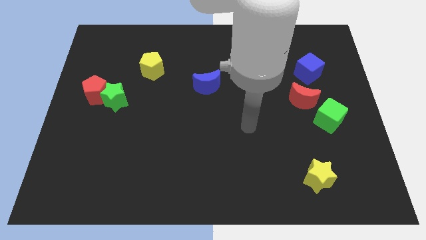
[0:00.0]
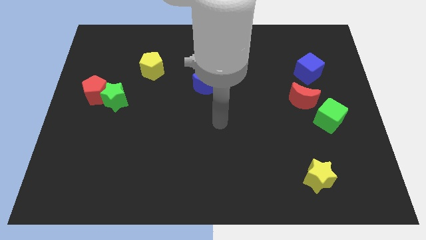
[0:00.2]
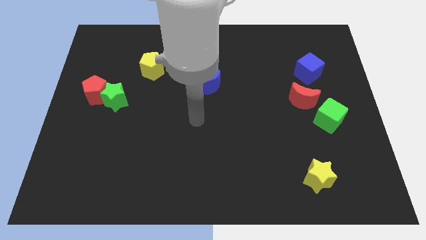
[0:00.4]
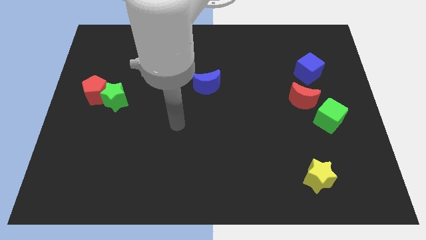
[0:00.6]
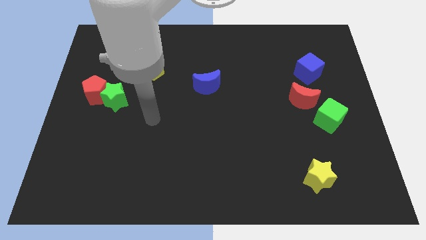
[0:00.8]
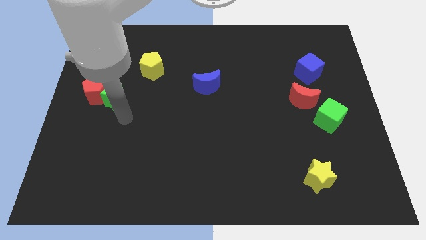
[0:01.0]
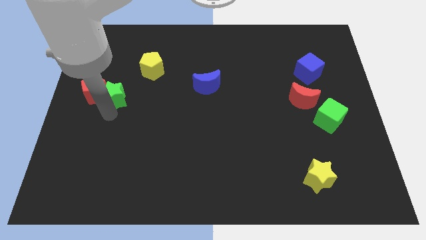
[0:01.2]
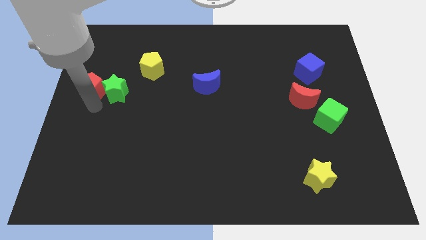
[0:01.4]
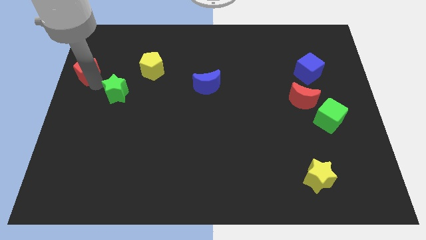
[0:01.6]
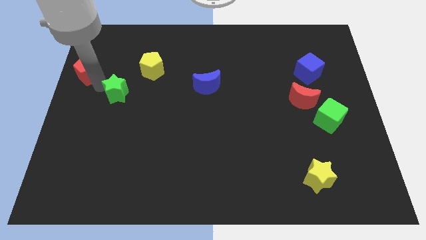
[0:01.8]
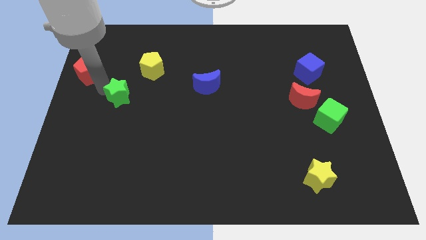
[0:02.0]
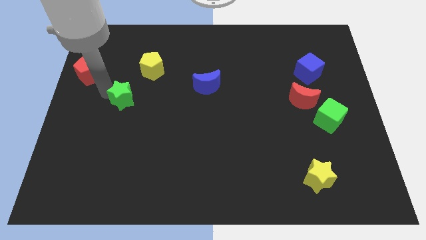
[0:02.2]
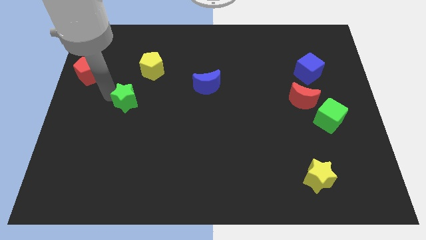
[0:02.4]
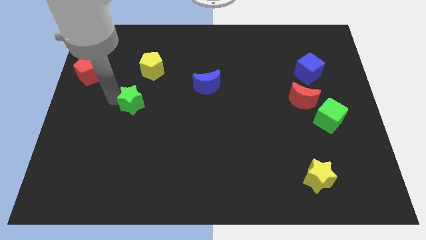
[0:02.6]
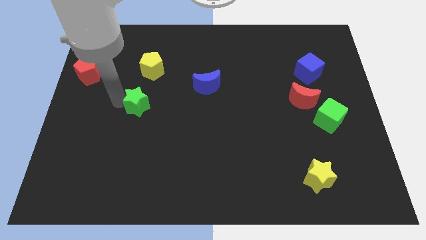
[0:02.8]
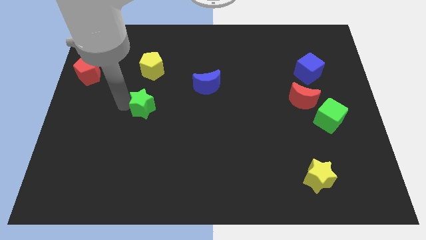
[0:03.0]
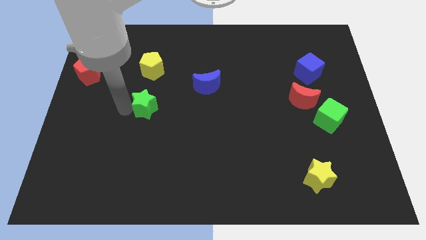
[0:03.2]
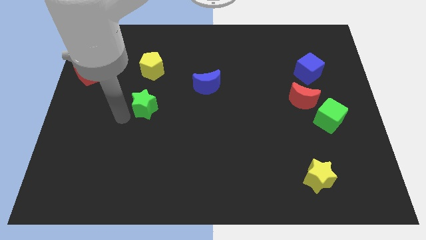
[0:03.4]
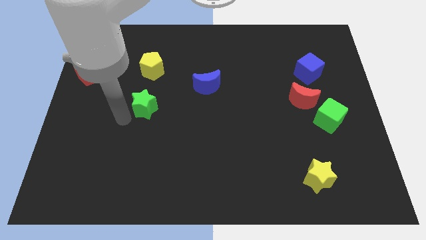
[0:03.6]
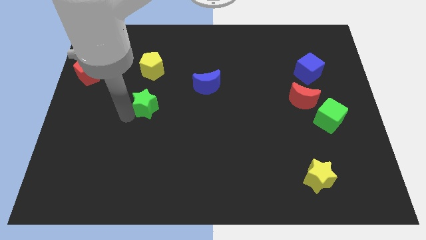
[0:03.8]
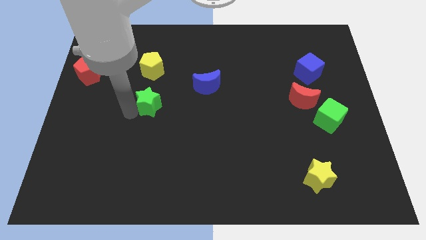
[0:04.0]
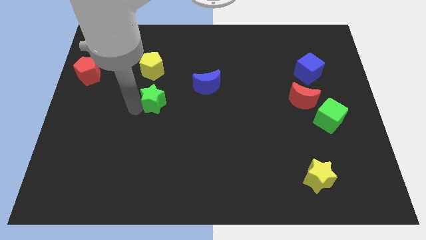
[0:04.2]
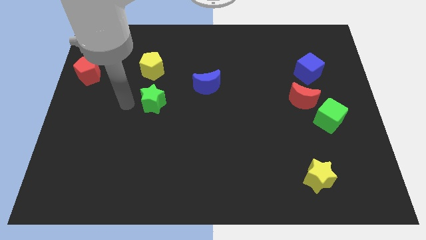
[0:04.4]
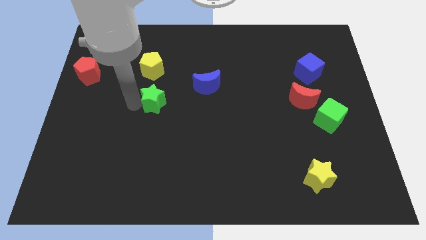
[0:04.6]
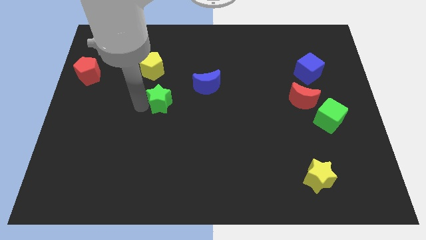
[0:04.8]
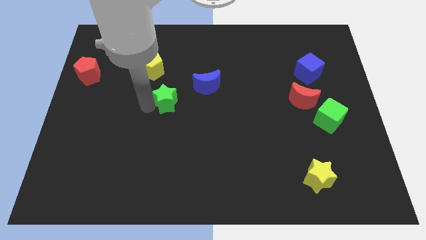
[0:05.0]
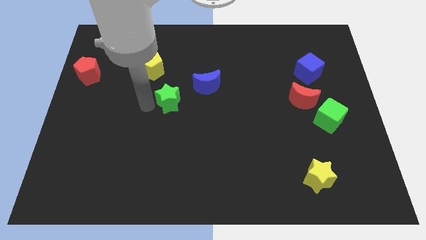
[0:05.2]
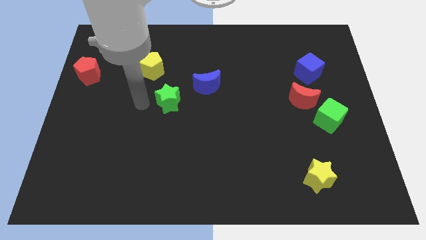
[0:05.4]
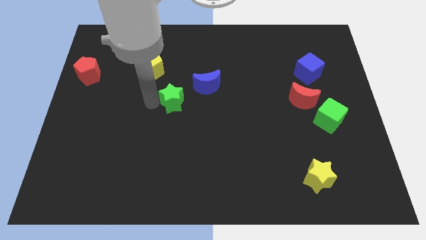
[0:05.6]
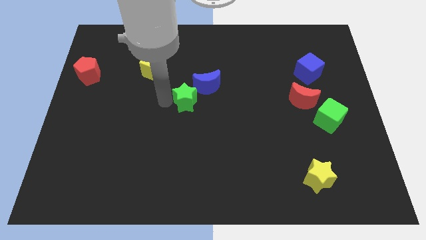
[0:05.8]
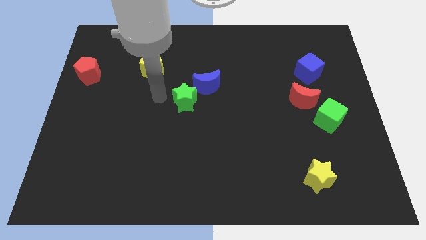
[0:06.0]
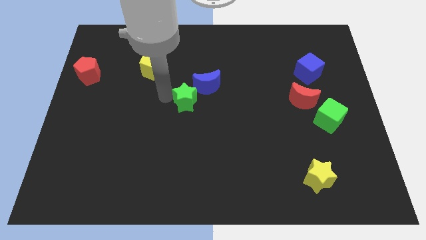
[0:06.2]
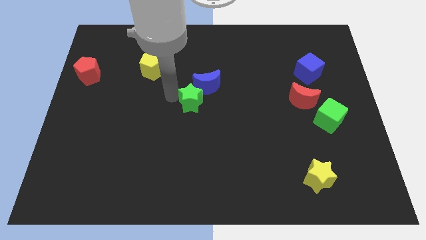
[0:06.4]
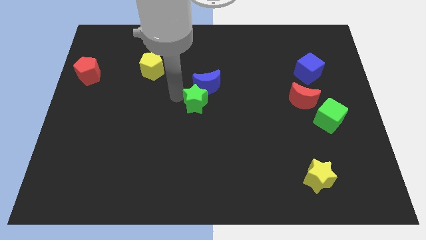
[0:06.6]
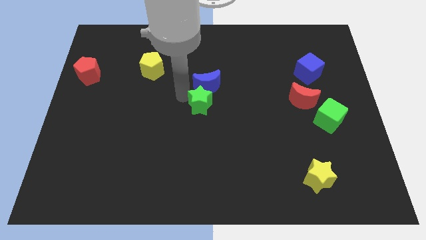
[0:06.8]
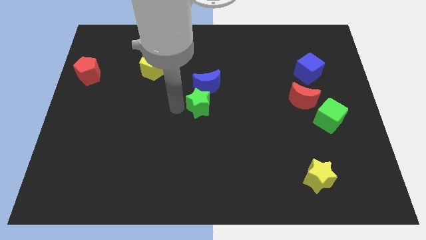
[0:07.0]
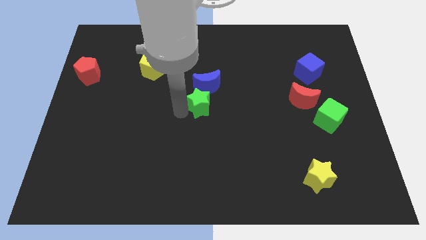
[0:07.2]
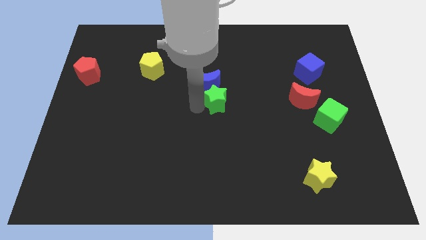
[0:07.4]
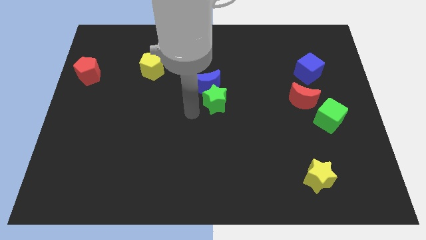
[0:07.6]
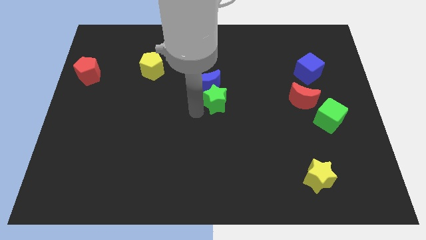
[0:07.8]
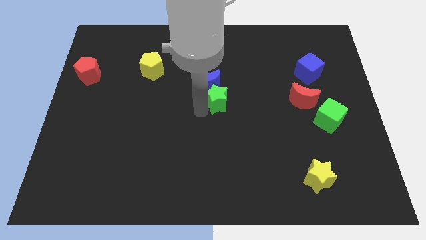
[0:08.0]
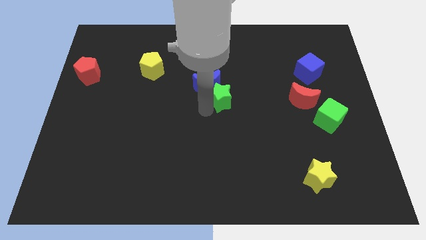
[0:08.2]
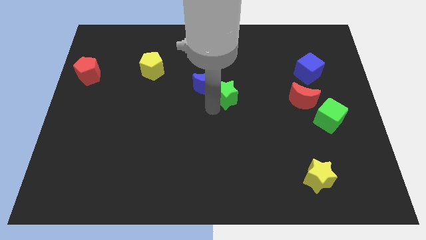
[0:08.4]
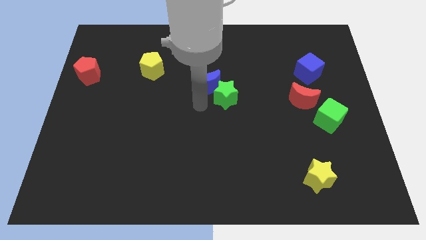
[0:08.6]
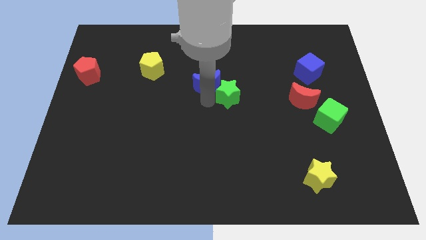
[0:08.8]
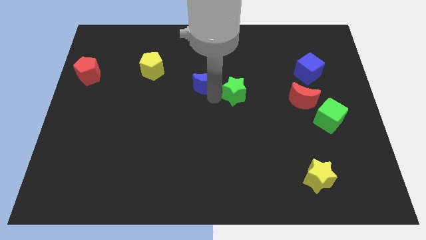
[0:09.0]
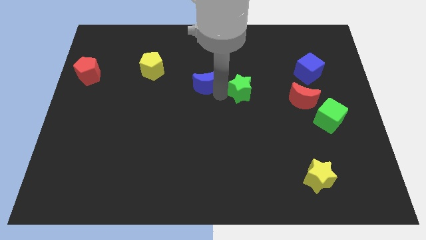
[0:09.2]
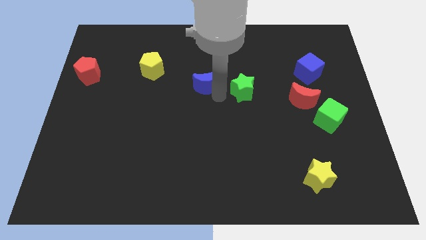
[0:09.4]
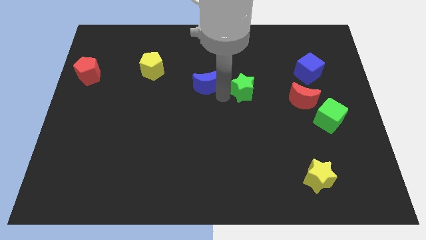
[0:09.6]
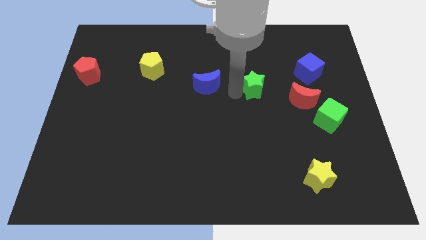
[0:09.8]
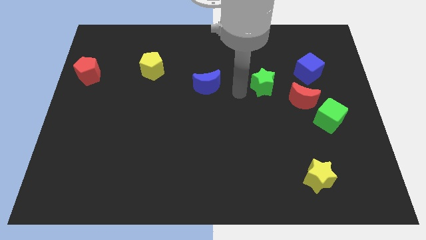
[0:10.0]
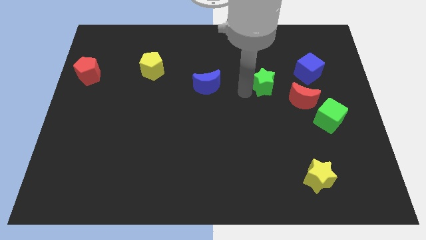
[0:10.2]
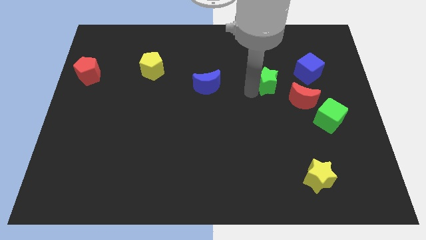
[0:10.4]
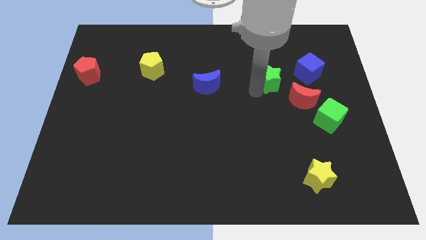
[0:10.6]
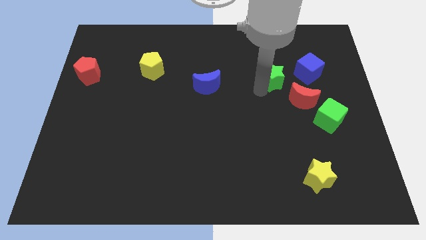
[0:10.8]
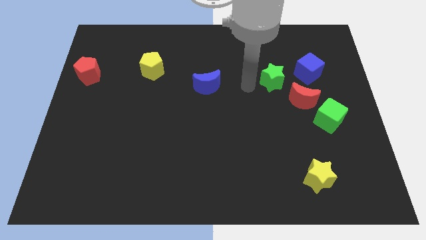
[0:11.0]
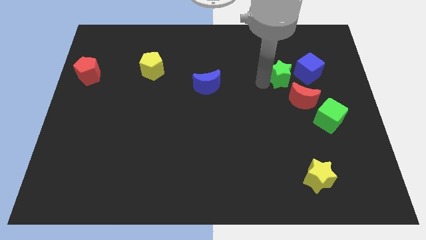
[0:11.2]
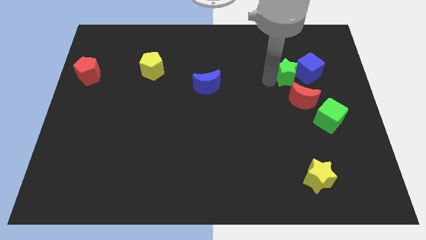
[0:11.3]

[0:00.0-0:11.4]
push the green star to the blue cube

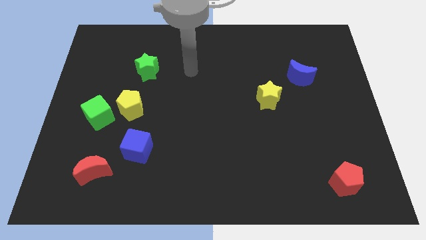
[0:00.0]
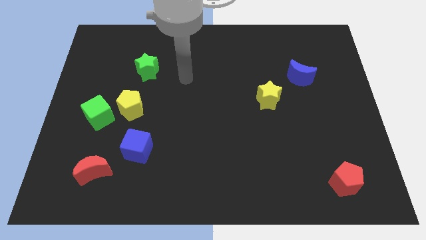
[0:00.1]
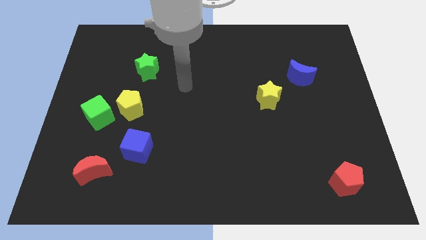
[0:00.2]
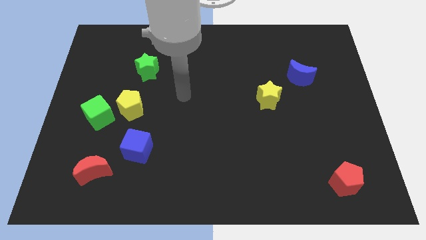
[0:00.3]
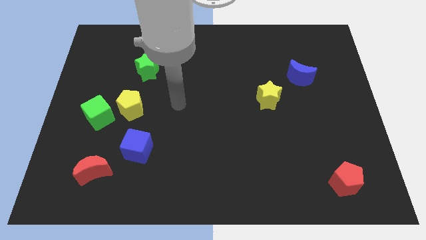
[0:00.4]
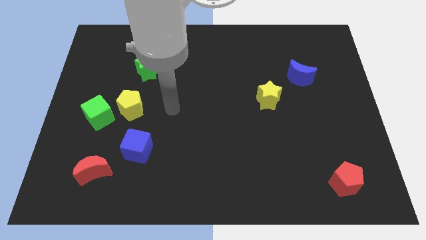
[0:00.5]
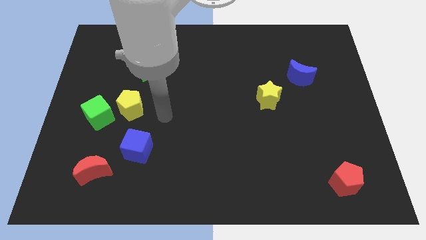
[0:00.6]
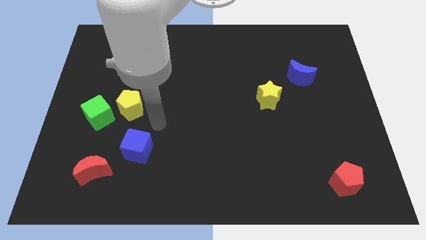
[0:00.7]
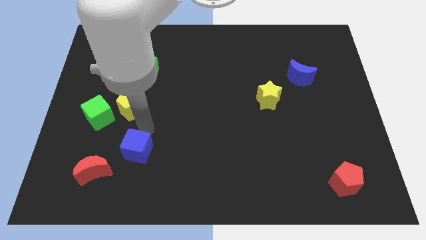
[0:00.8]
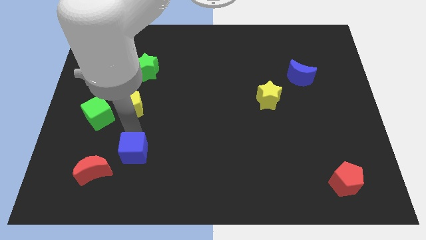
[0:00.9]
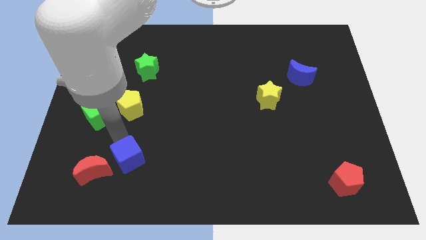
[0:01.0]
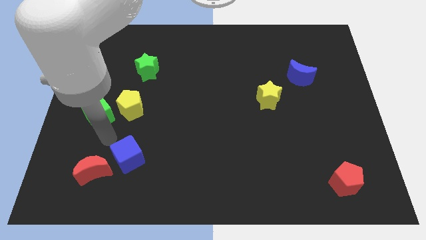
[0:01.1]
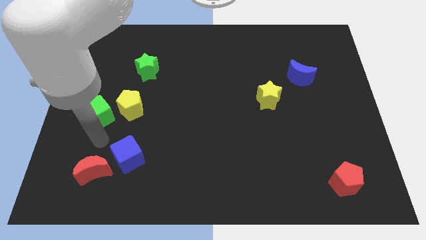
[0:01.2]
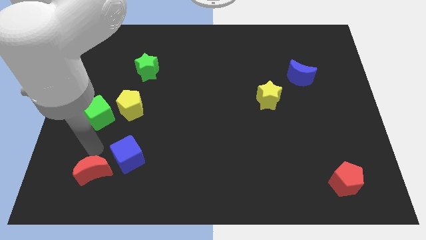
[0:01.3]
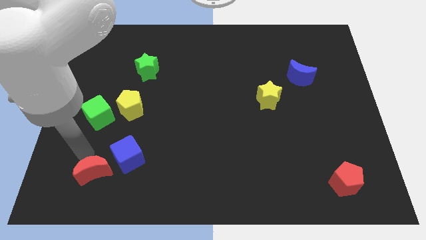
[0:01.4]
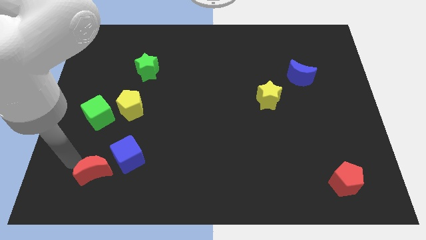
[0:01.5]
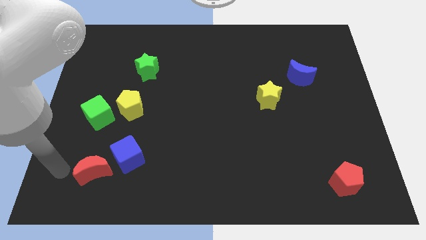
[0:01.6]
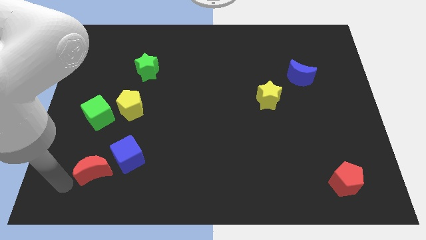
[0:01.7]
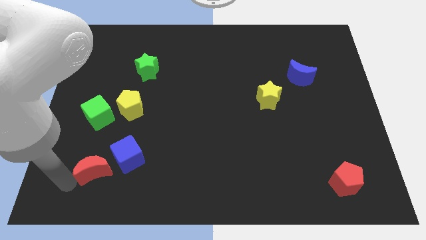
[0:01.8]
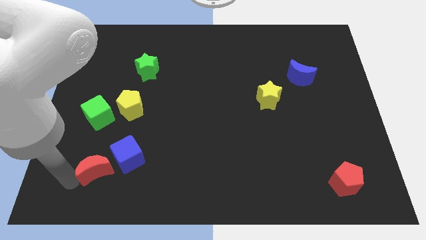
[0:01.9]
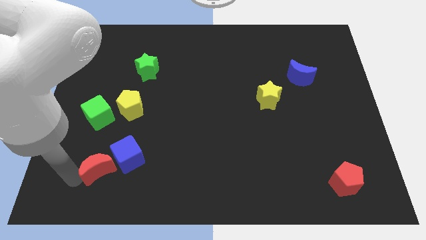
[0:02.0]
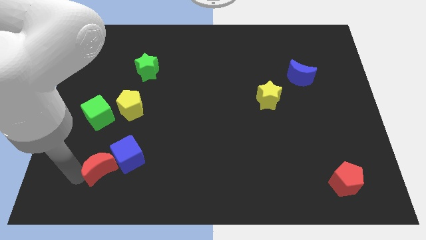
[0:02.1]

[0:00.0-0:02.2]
move the red moon to the blue cube
